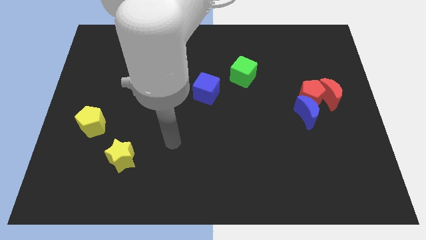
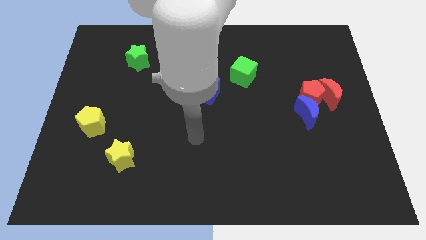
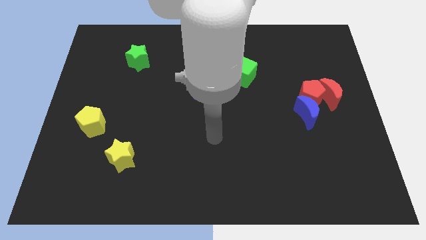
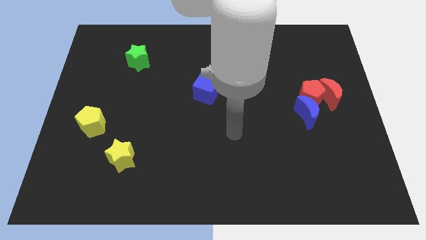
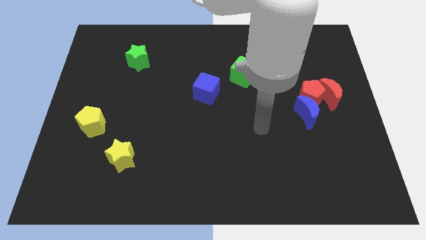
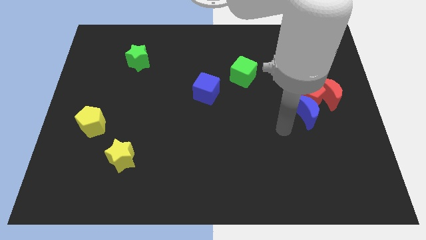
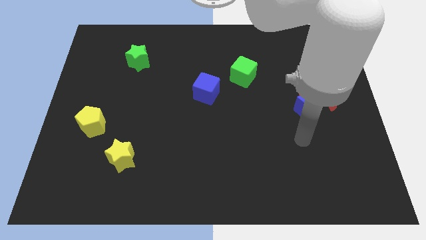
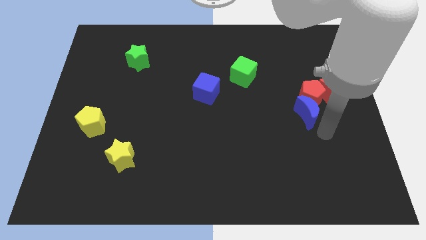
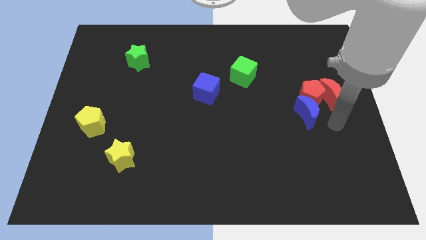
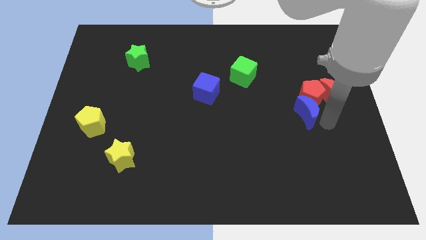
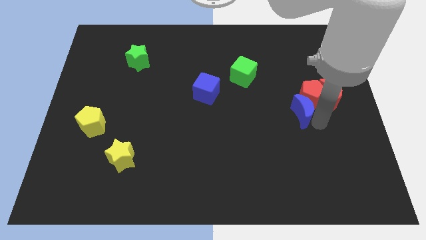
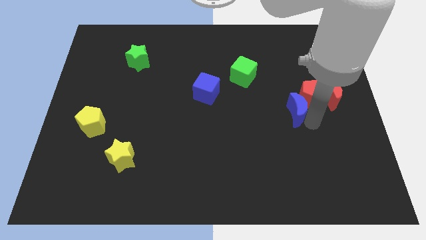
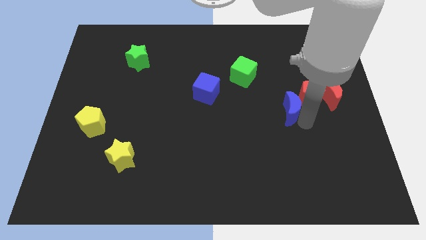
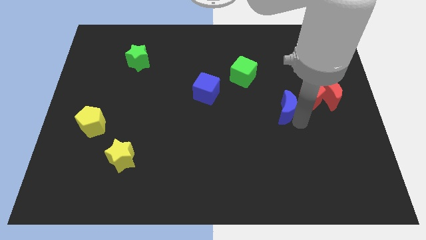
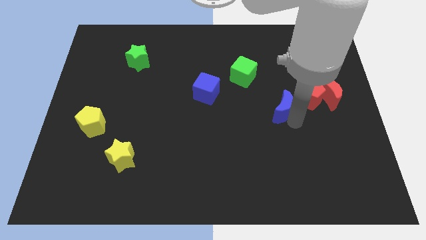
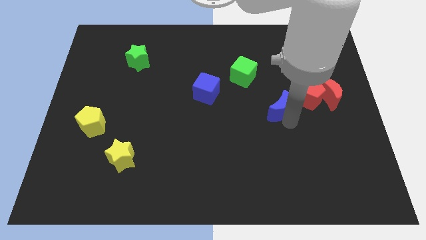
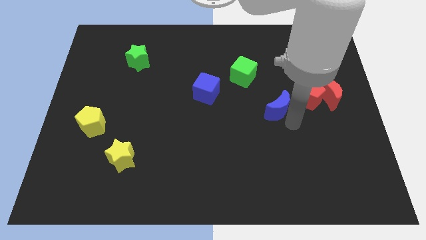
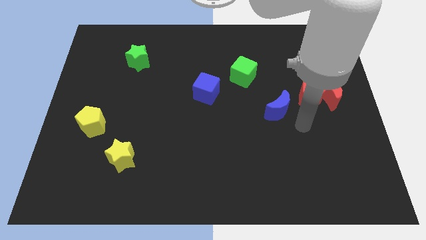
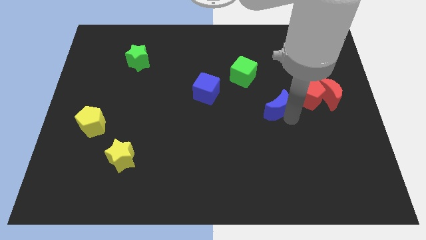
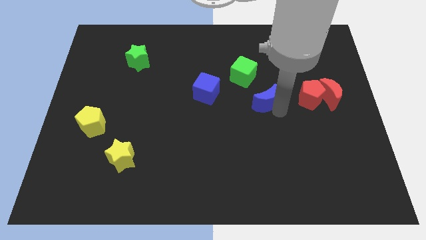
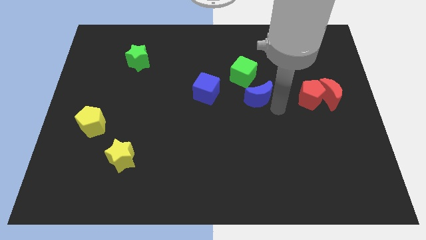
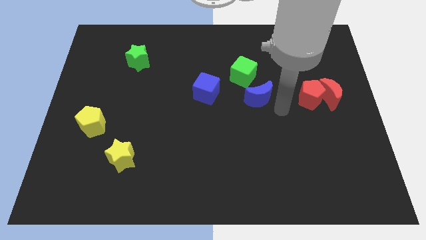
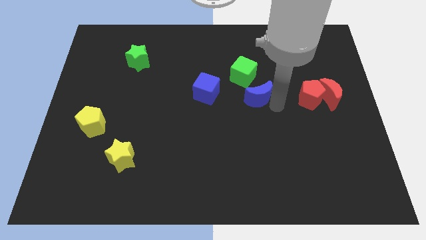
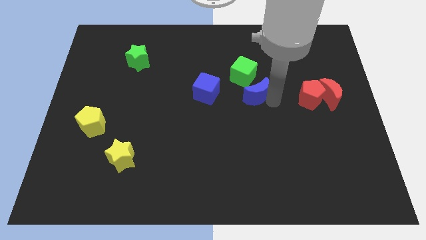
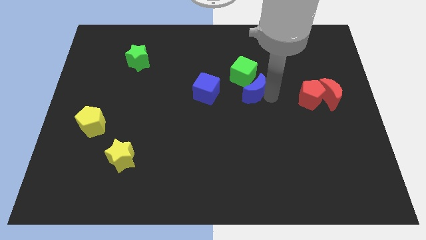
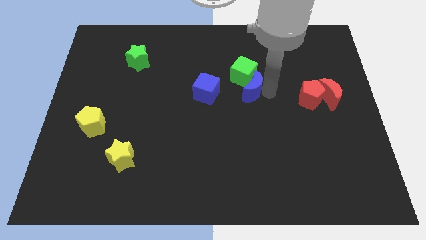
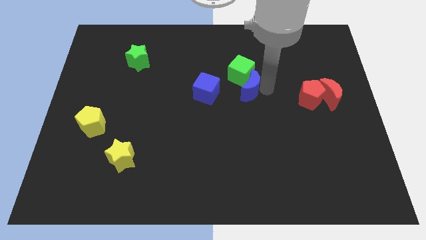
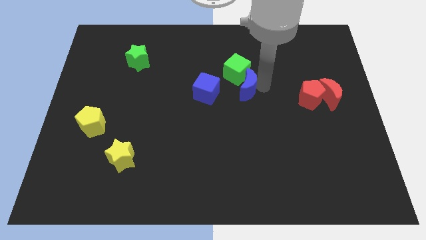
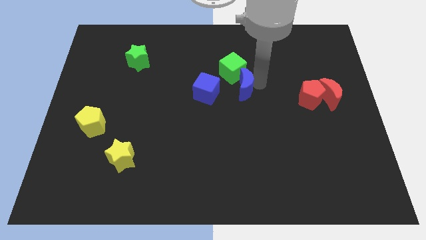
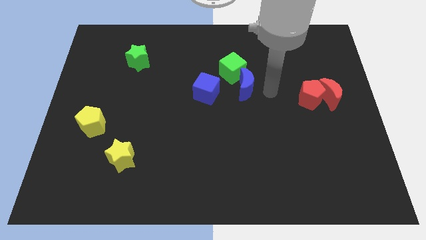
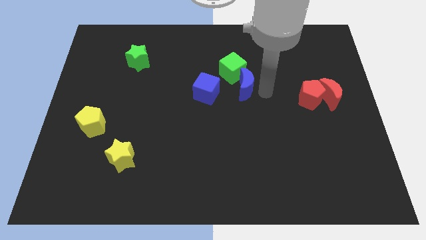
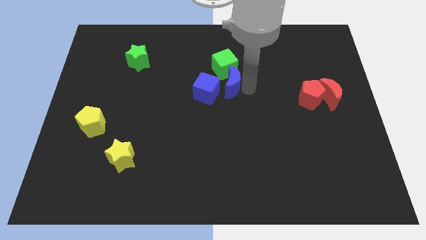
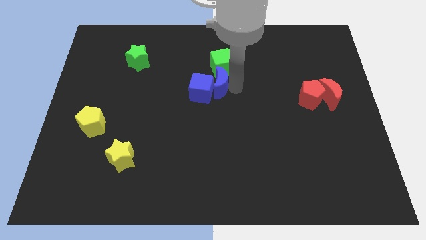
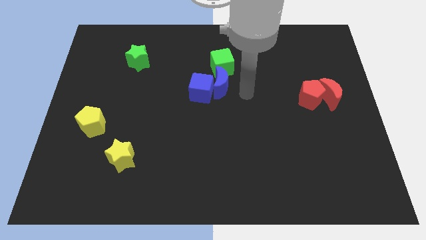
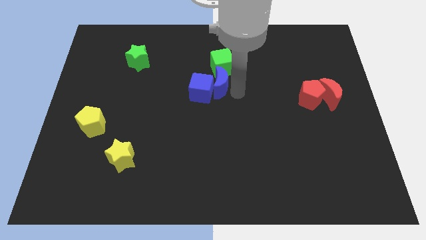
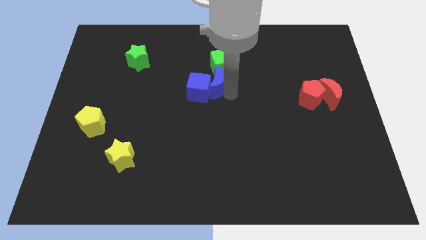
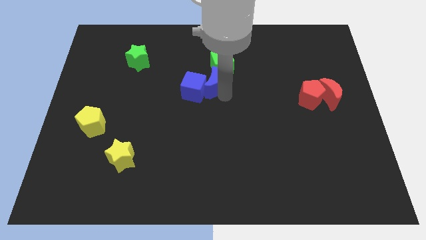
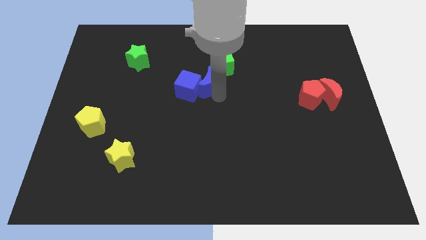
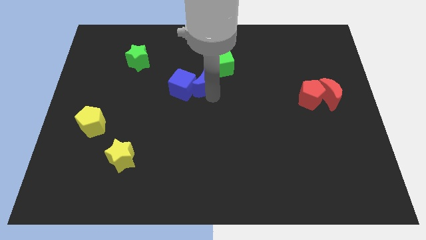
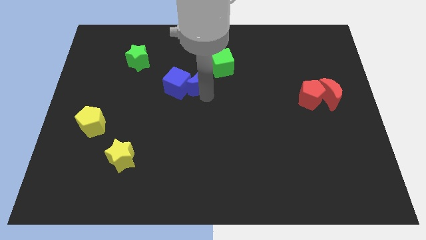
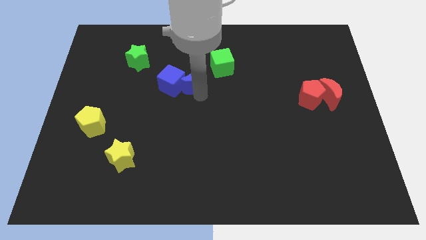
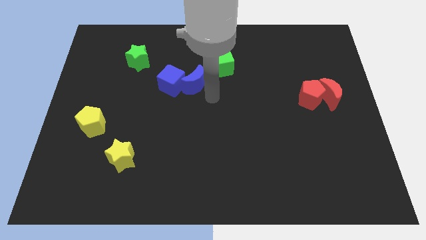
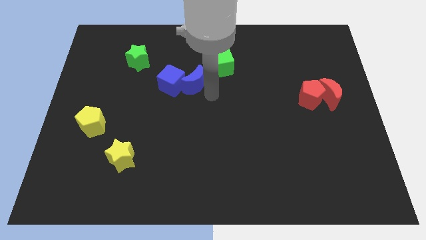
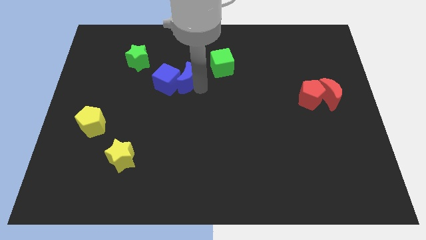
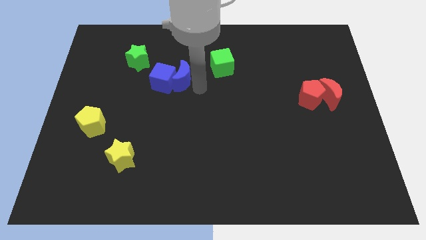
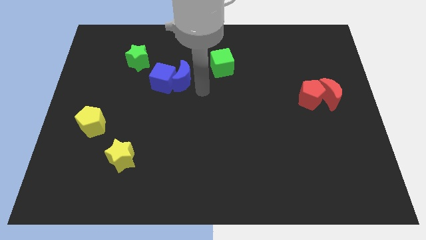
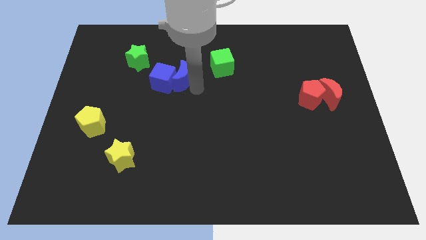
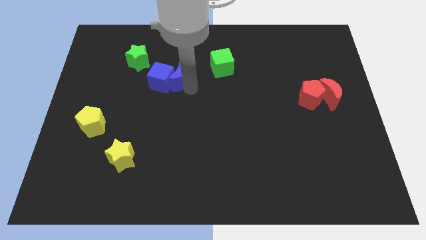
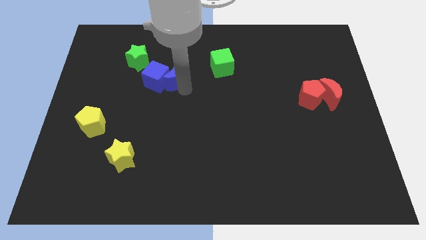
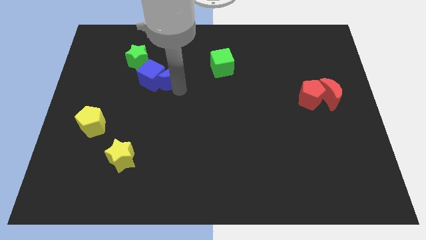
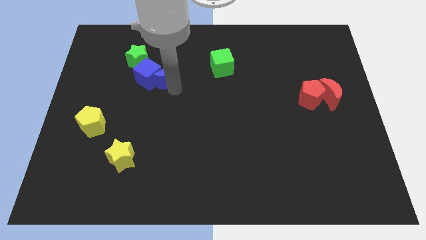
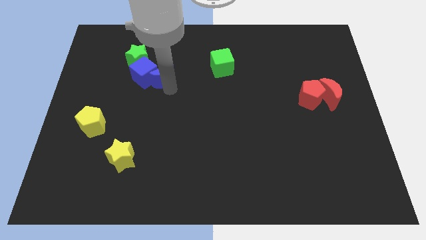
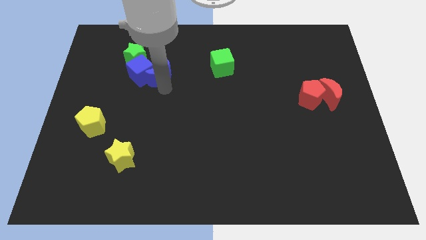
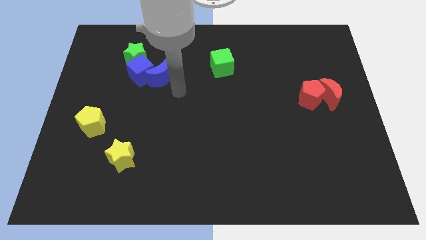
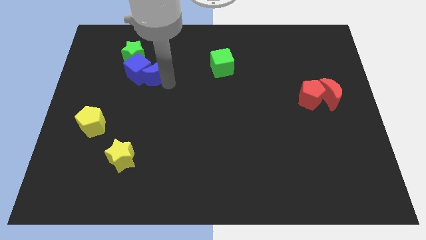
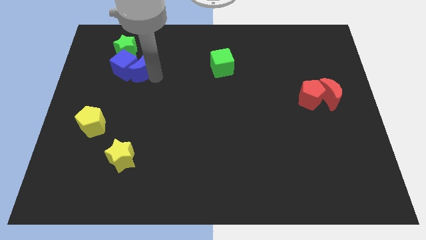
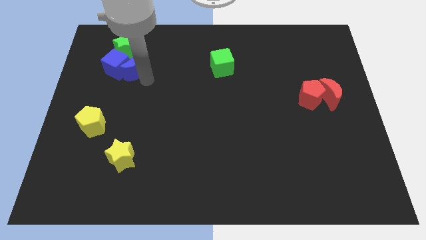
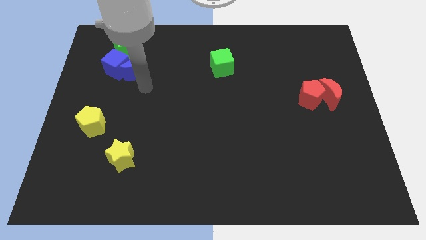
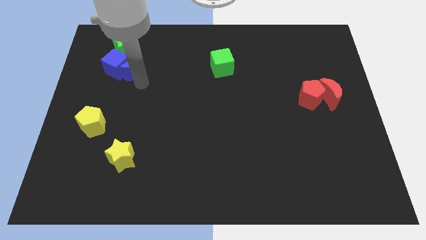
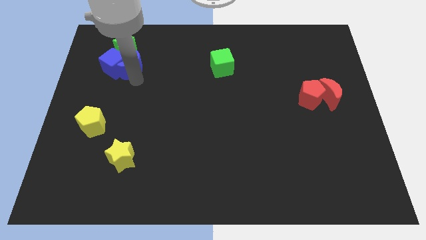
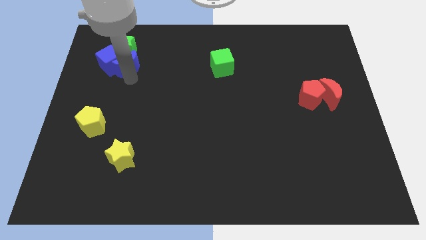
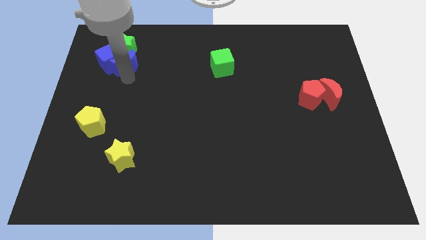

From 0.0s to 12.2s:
put the blue moon to the green star

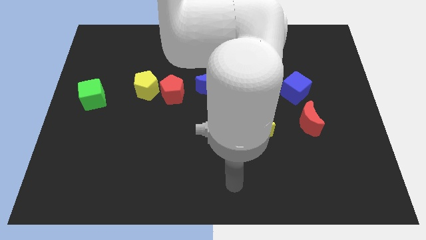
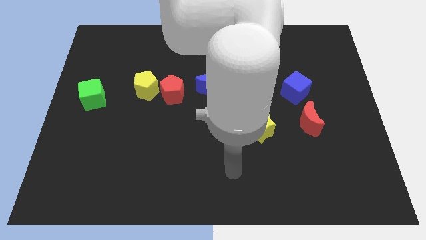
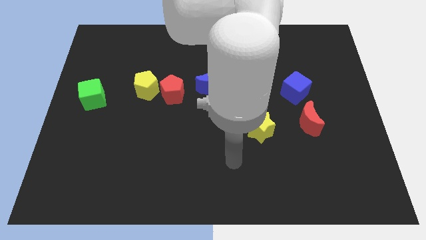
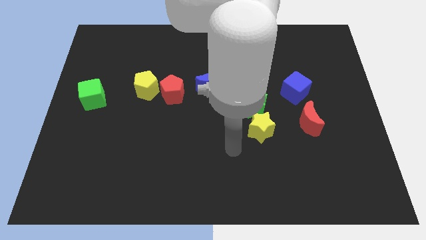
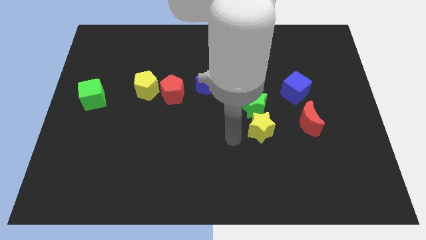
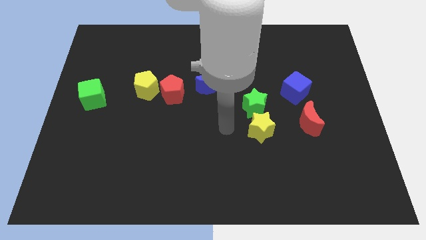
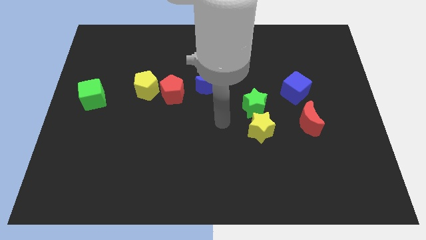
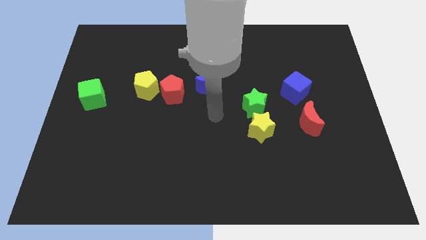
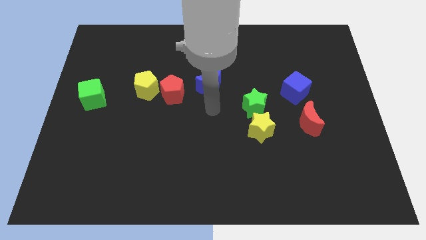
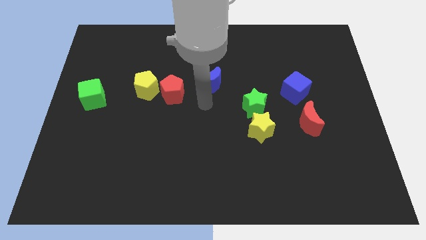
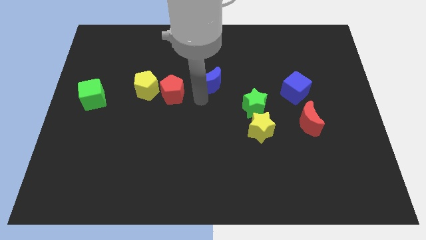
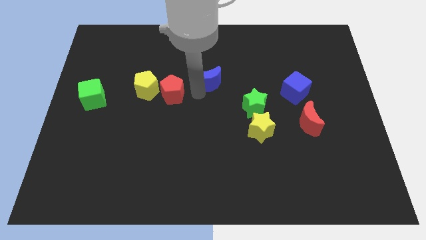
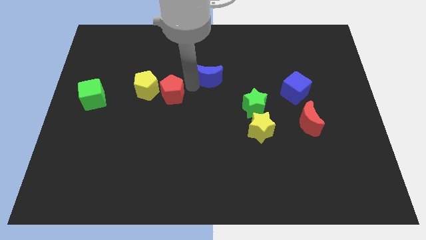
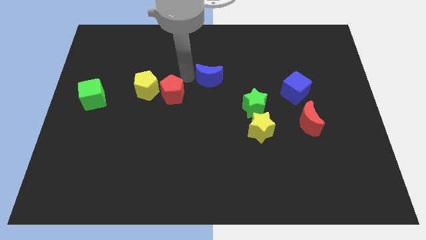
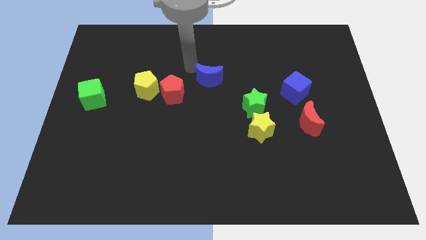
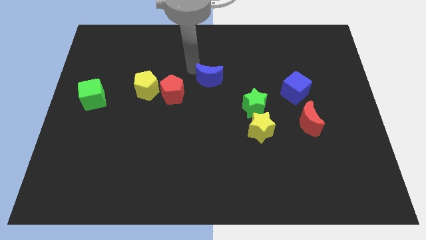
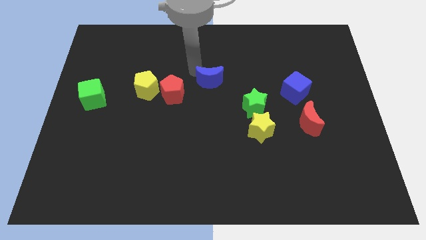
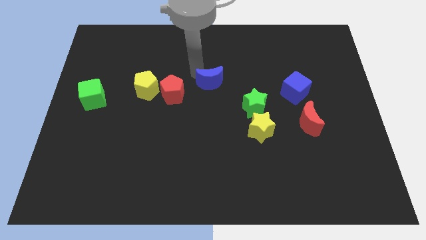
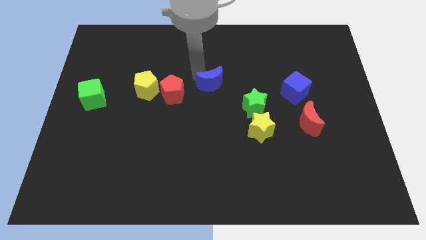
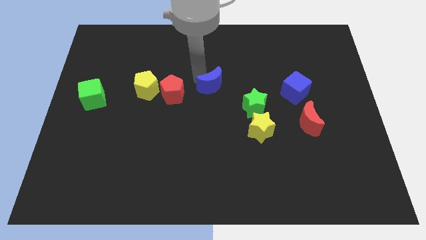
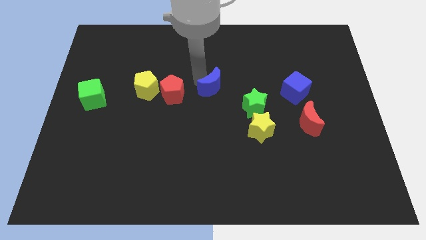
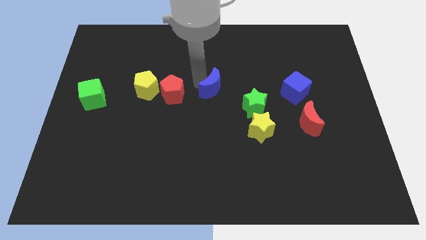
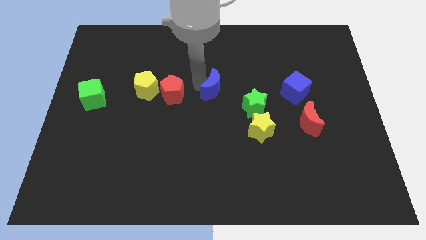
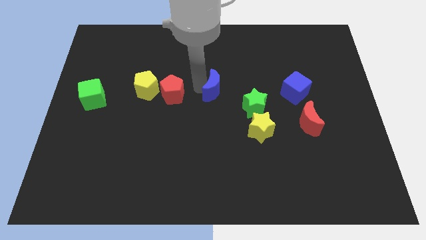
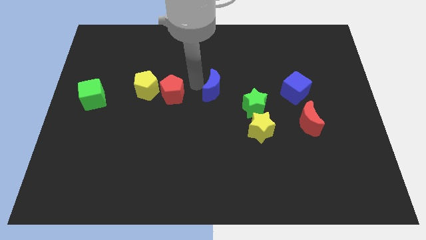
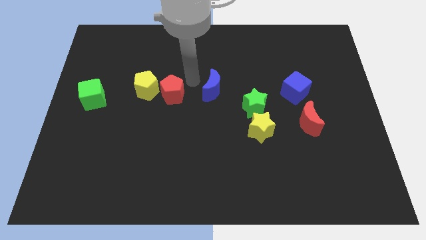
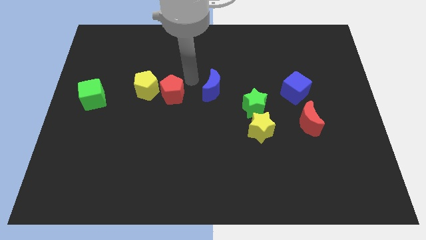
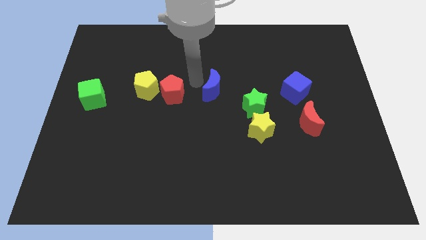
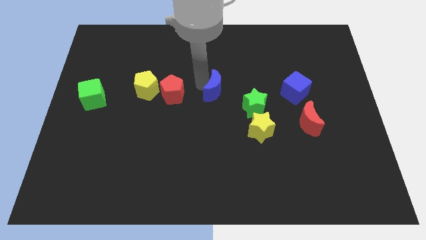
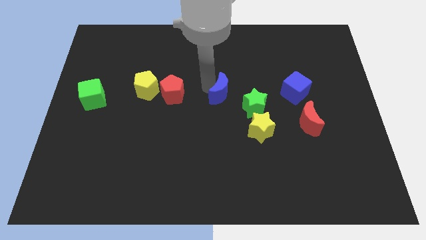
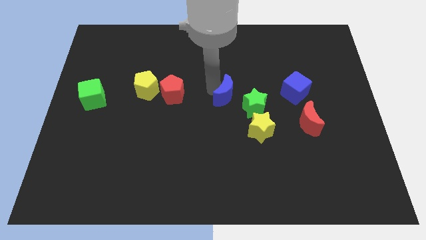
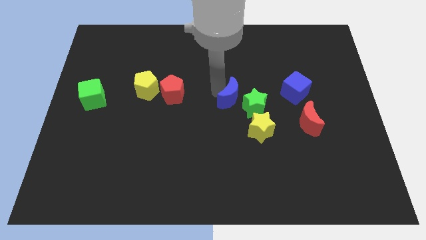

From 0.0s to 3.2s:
push the blue moon next to the green star
